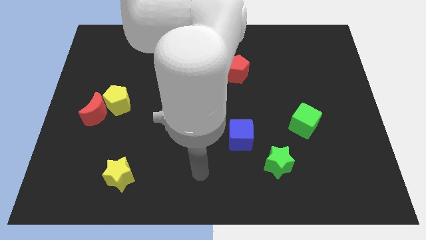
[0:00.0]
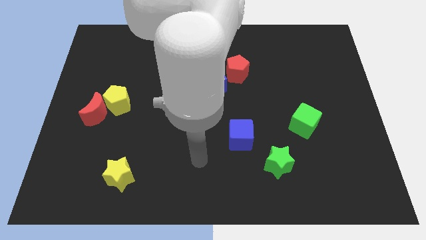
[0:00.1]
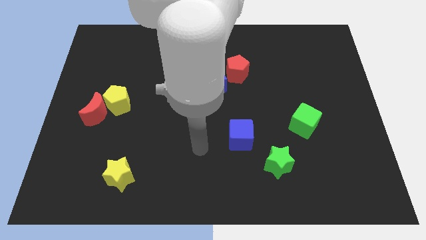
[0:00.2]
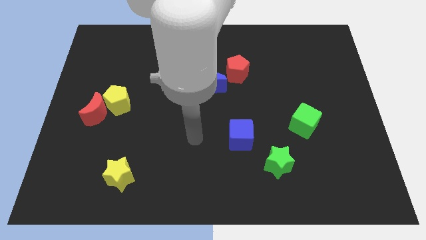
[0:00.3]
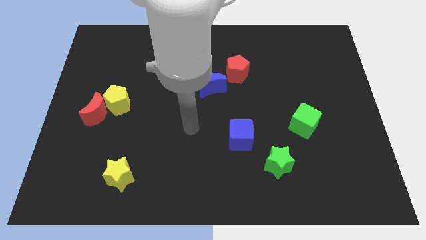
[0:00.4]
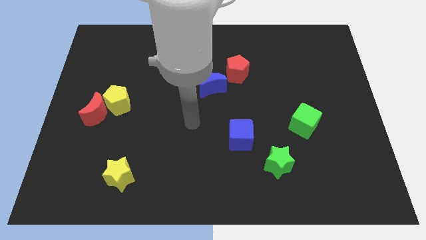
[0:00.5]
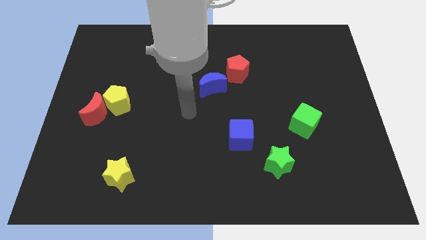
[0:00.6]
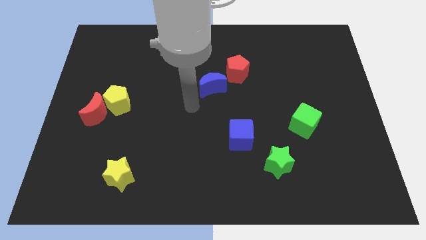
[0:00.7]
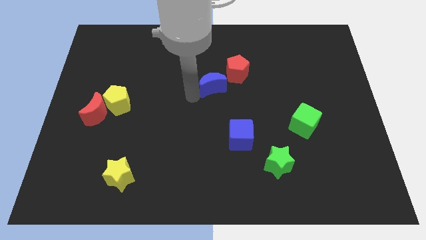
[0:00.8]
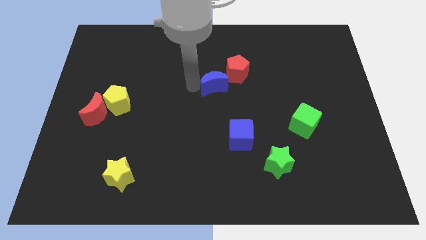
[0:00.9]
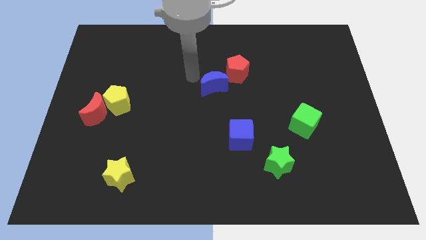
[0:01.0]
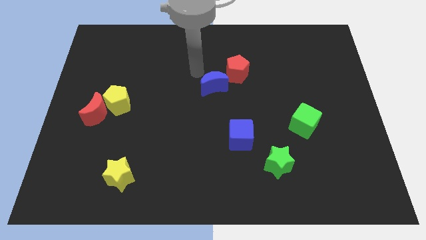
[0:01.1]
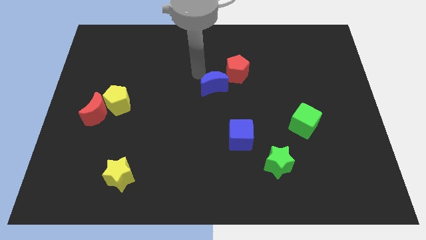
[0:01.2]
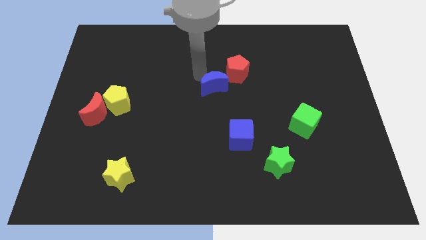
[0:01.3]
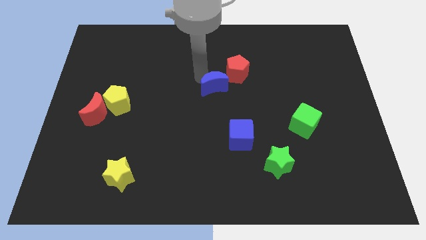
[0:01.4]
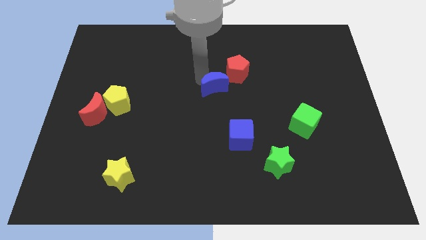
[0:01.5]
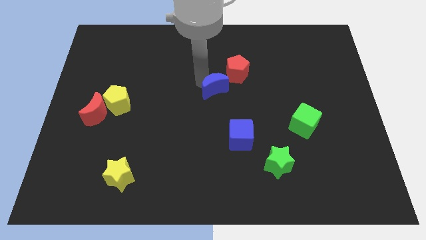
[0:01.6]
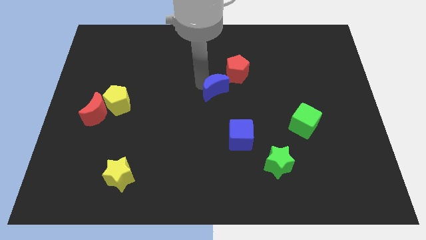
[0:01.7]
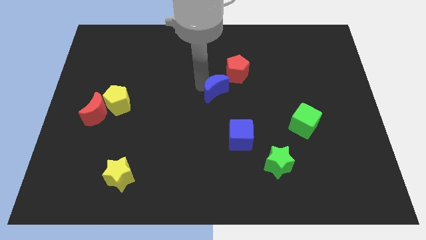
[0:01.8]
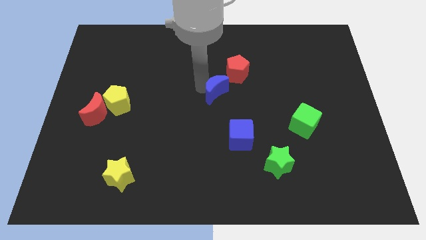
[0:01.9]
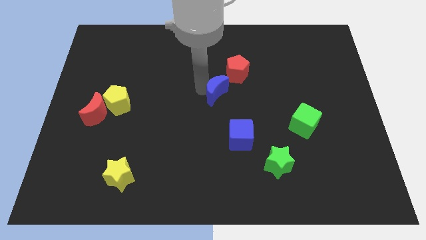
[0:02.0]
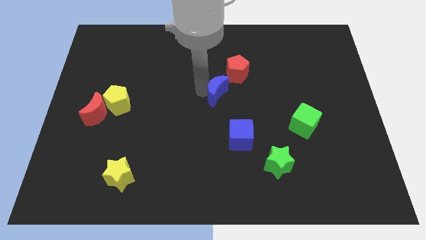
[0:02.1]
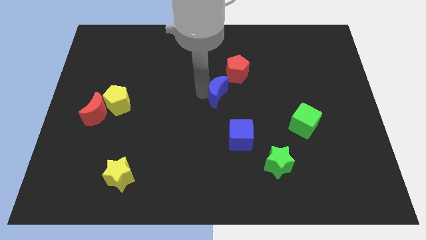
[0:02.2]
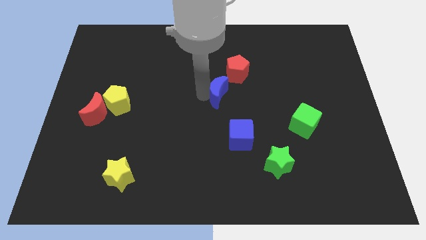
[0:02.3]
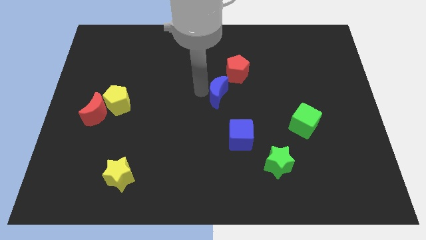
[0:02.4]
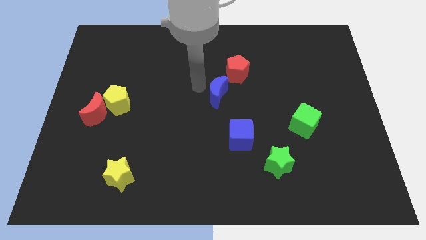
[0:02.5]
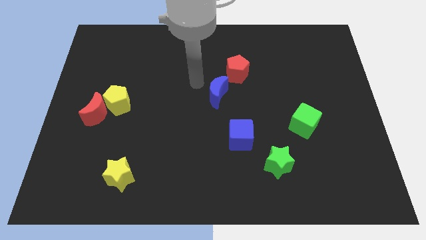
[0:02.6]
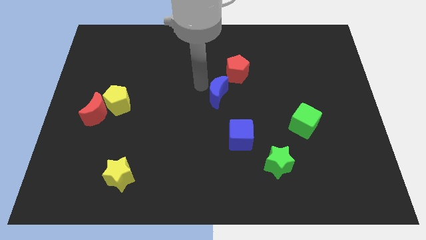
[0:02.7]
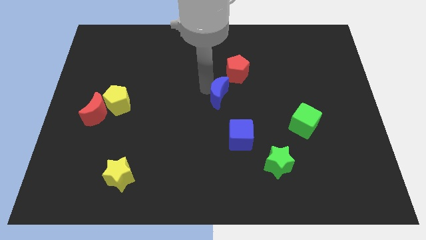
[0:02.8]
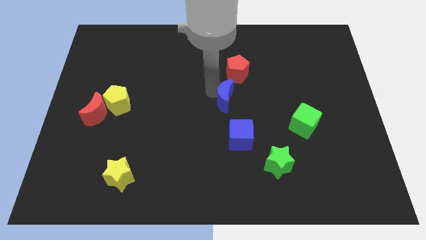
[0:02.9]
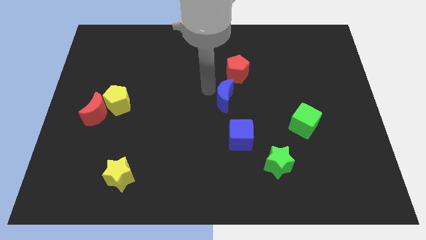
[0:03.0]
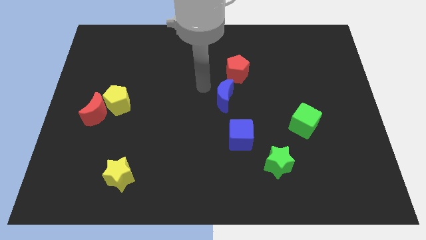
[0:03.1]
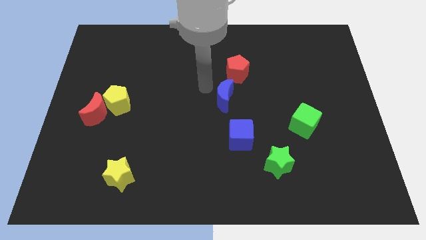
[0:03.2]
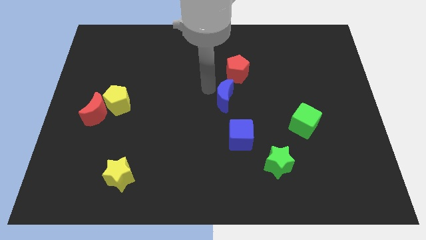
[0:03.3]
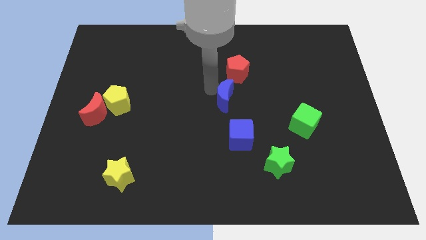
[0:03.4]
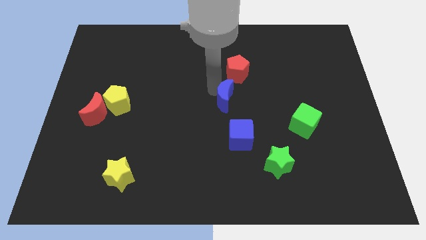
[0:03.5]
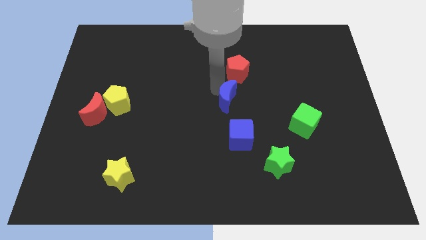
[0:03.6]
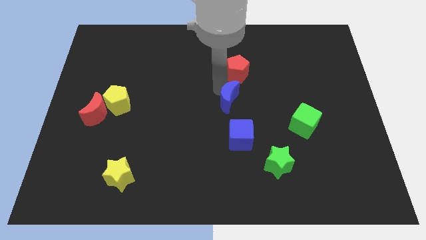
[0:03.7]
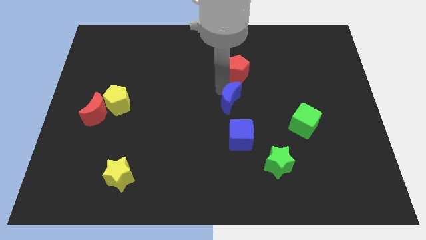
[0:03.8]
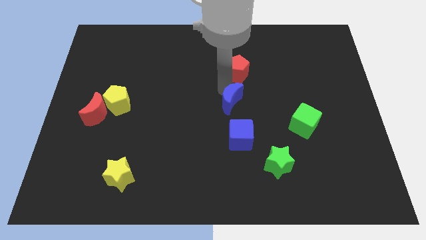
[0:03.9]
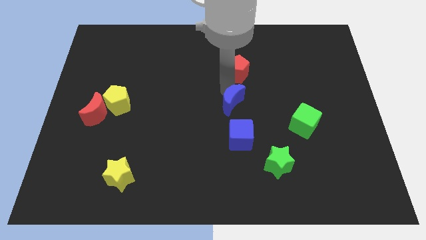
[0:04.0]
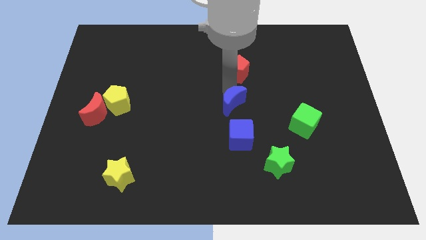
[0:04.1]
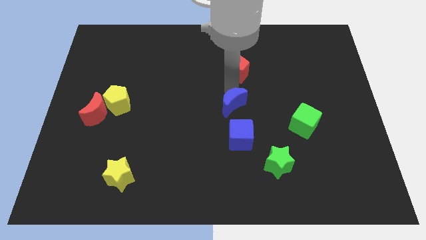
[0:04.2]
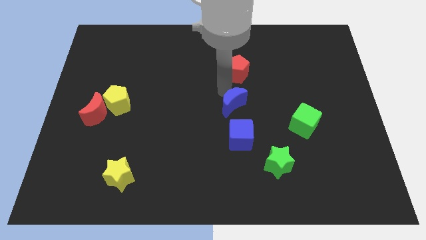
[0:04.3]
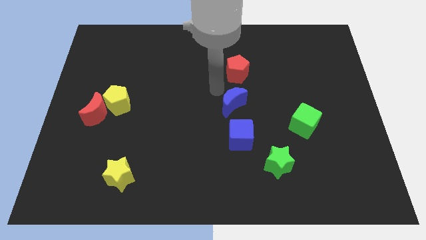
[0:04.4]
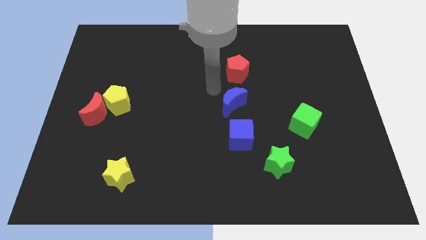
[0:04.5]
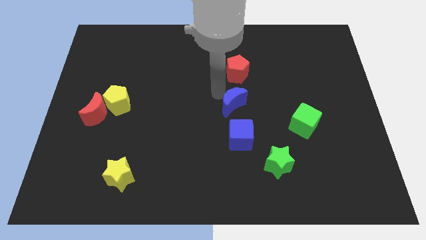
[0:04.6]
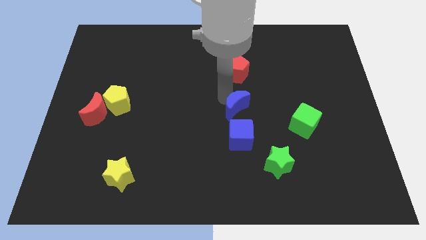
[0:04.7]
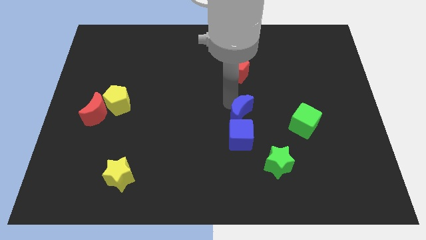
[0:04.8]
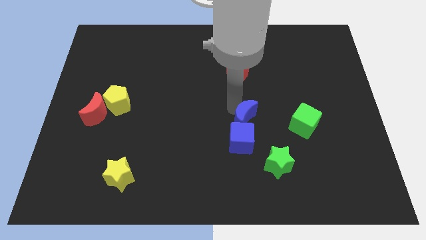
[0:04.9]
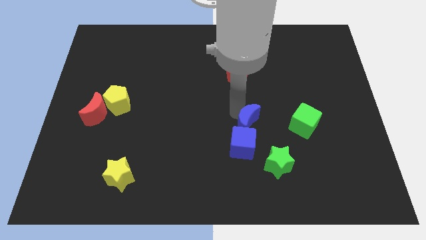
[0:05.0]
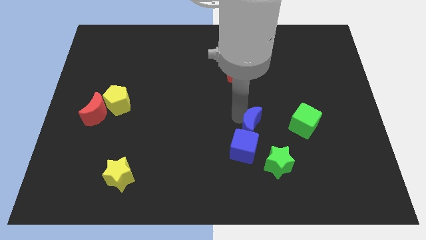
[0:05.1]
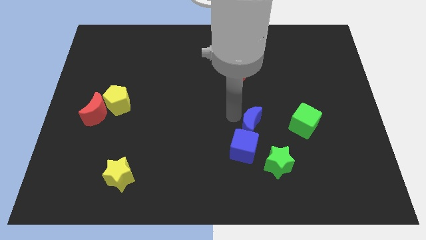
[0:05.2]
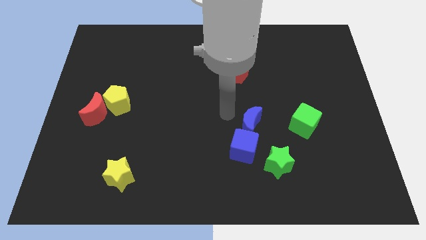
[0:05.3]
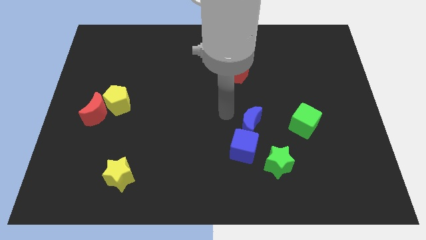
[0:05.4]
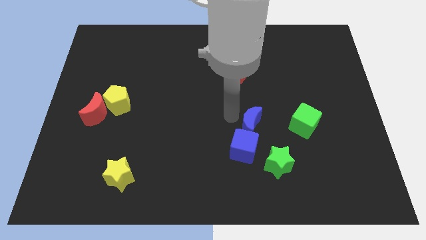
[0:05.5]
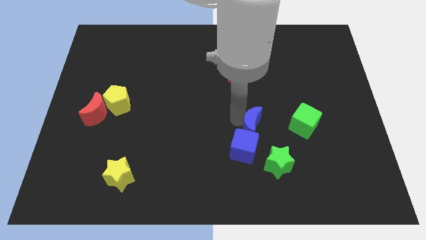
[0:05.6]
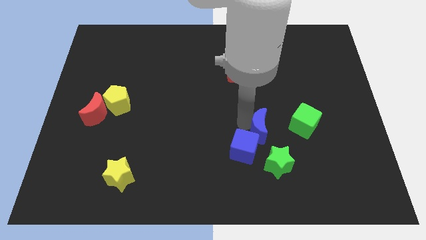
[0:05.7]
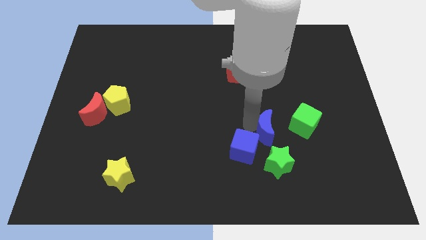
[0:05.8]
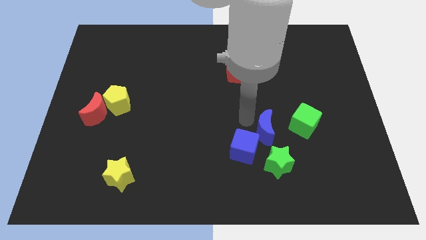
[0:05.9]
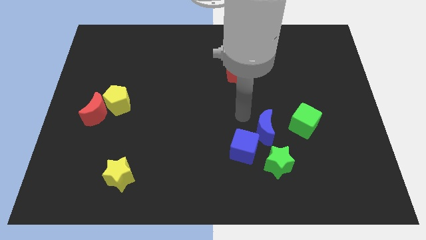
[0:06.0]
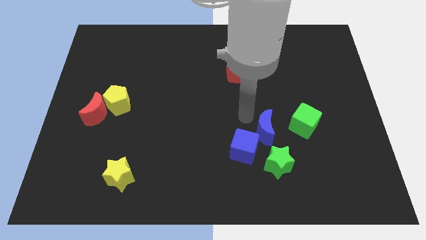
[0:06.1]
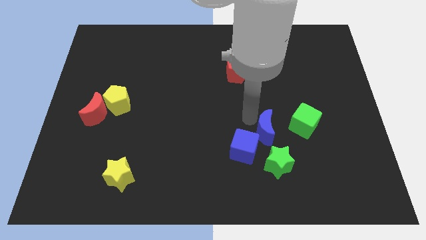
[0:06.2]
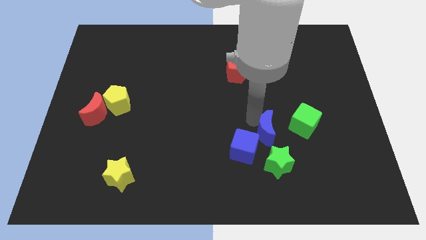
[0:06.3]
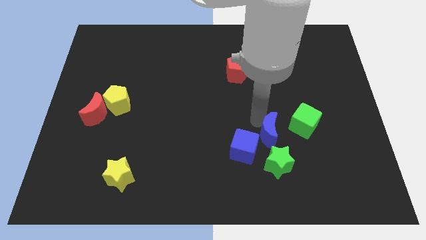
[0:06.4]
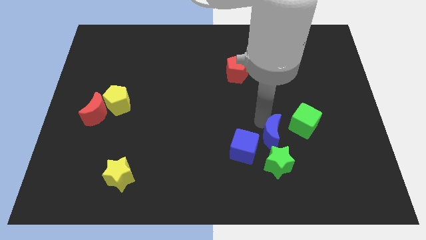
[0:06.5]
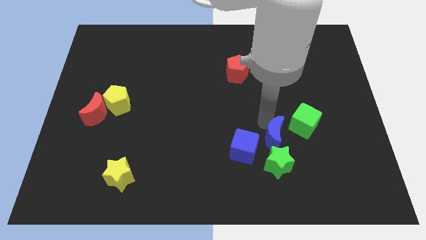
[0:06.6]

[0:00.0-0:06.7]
move the blue moon down and to the right diagonally

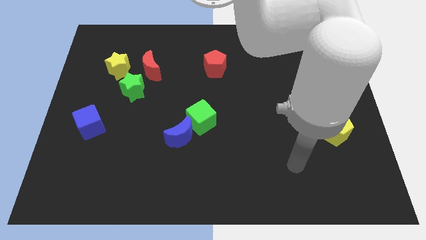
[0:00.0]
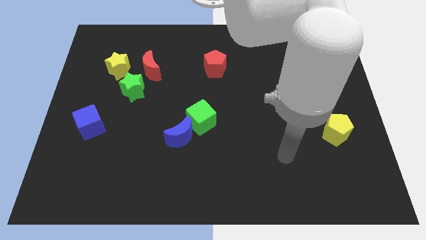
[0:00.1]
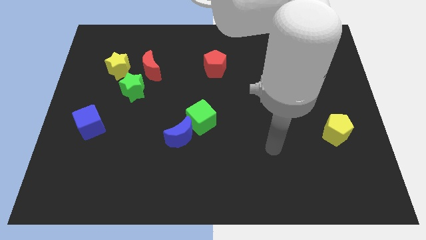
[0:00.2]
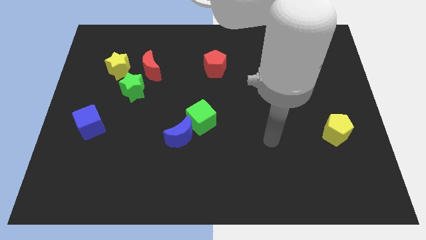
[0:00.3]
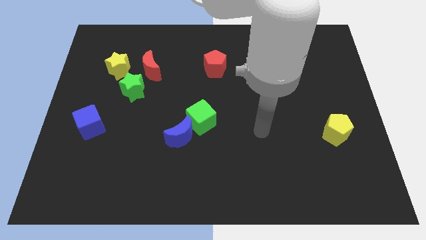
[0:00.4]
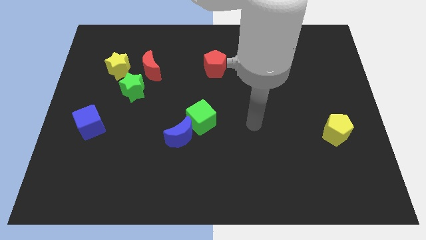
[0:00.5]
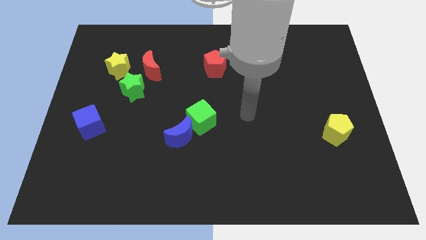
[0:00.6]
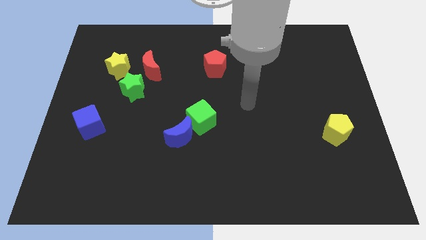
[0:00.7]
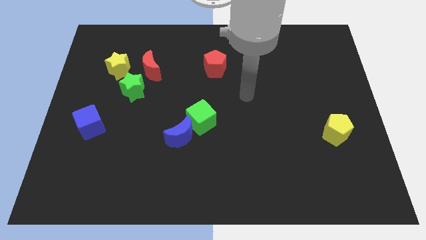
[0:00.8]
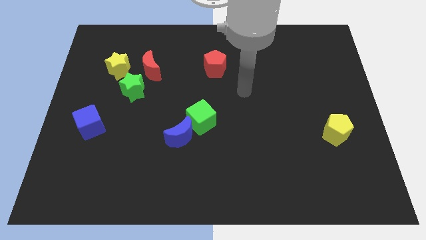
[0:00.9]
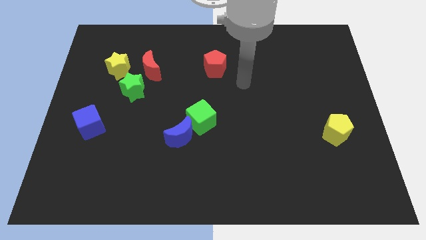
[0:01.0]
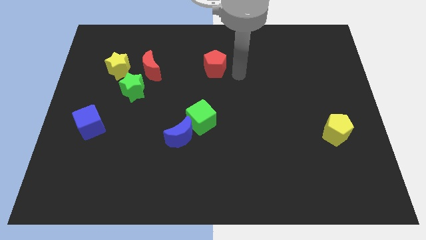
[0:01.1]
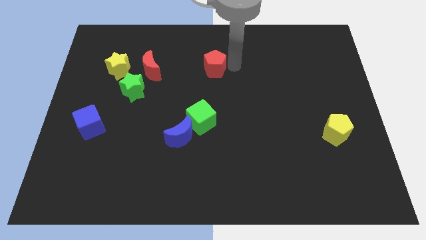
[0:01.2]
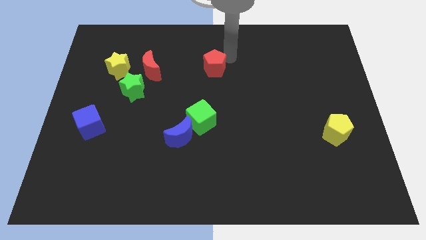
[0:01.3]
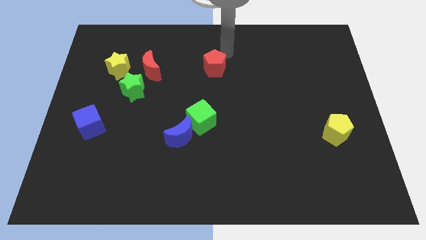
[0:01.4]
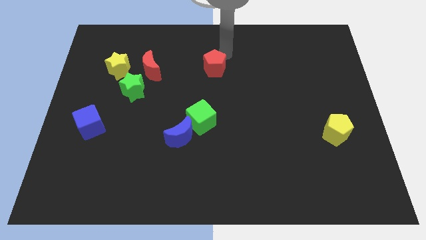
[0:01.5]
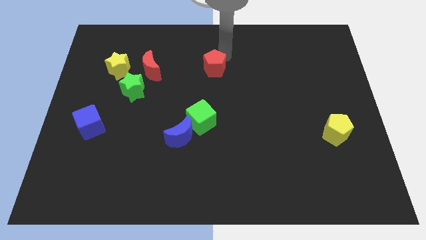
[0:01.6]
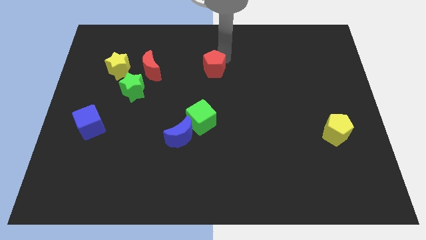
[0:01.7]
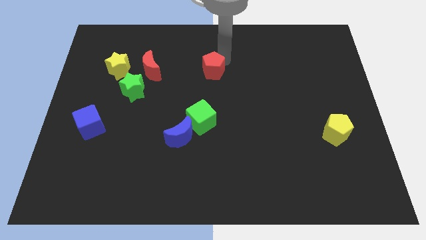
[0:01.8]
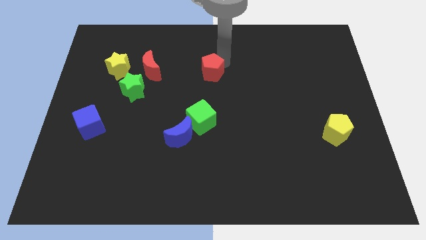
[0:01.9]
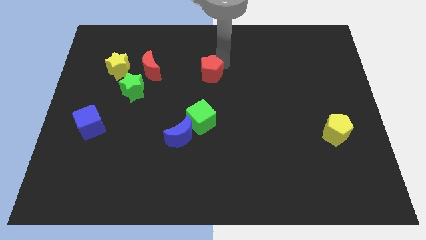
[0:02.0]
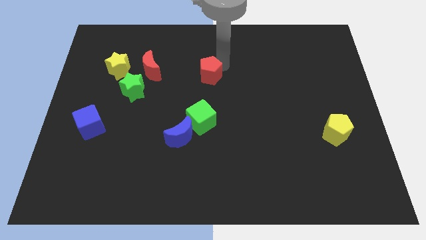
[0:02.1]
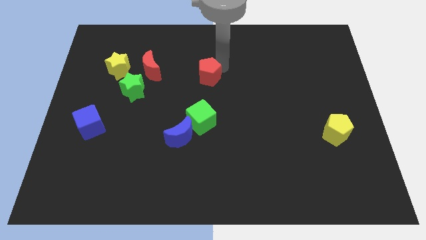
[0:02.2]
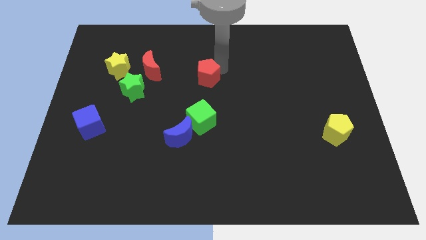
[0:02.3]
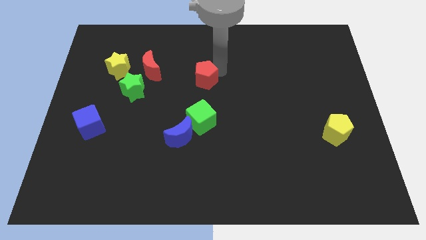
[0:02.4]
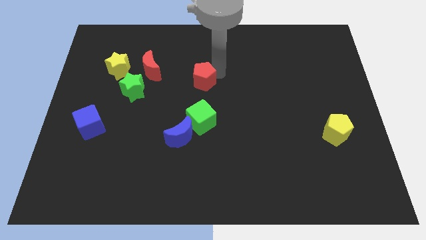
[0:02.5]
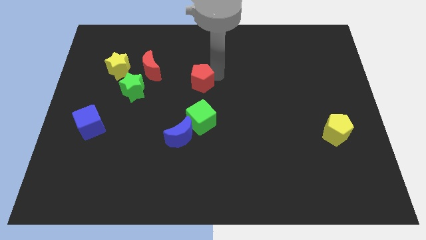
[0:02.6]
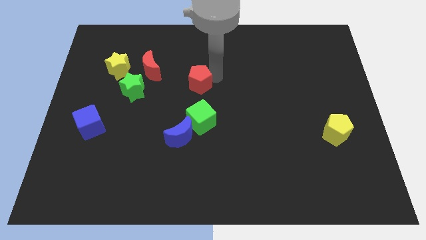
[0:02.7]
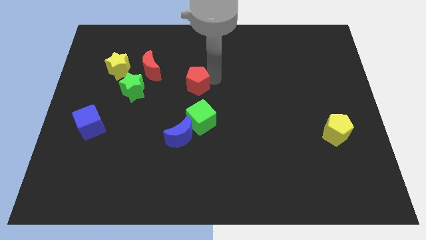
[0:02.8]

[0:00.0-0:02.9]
push the red pentagon diagonally downwards and left somewhat
